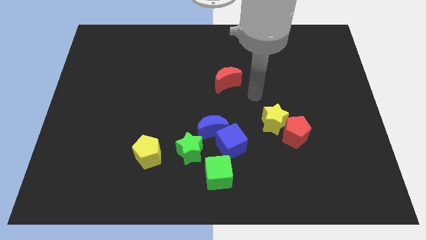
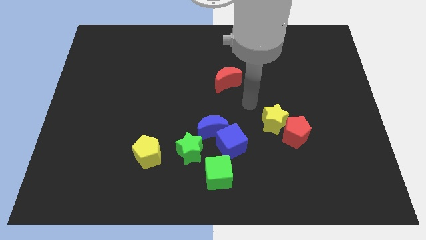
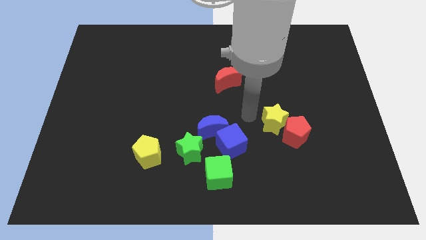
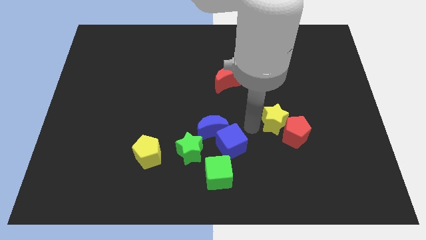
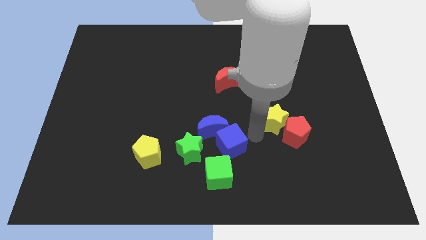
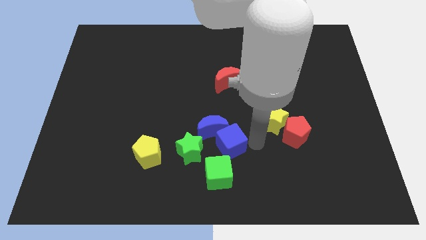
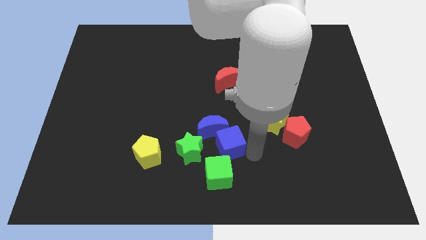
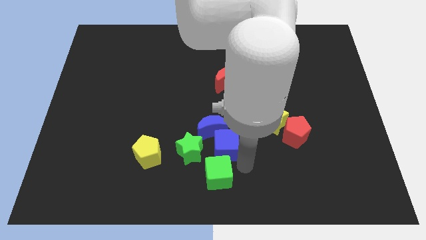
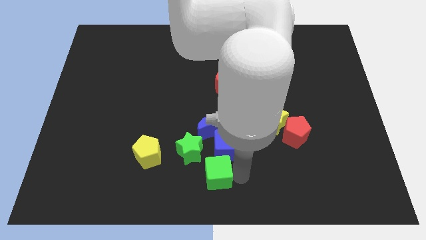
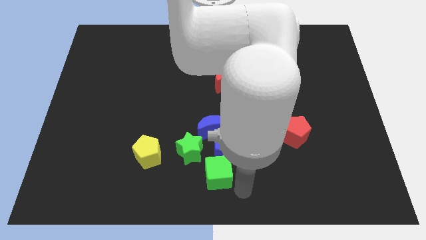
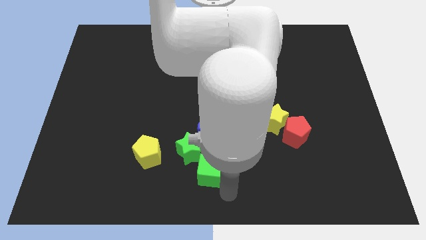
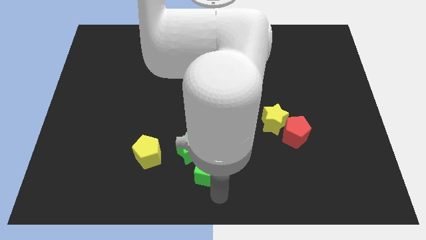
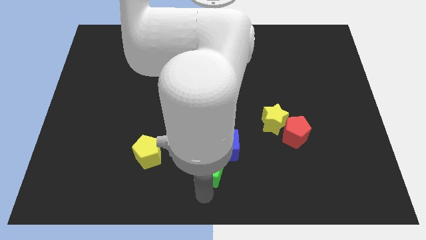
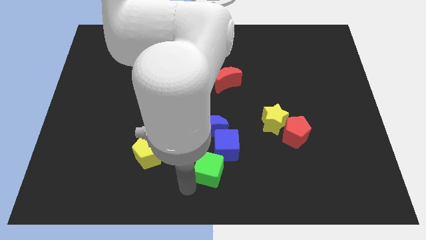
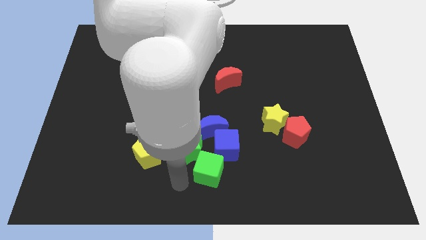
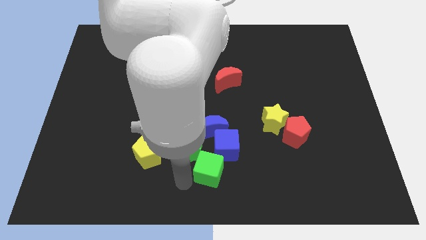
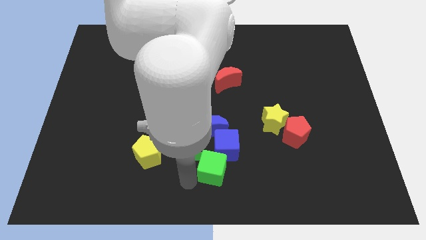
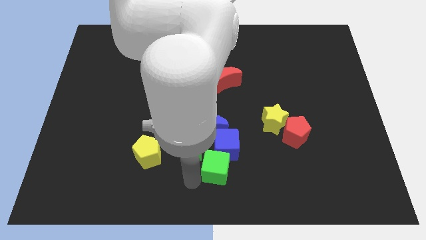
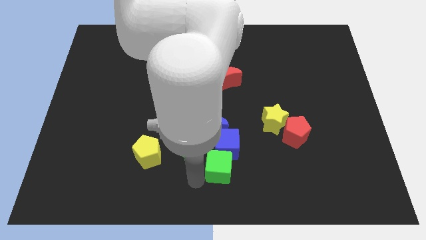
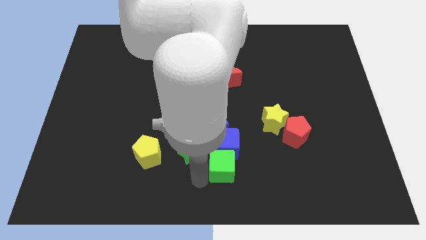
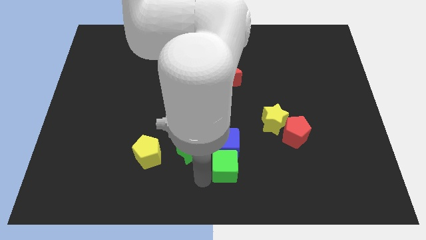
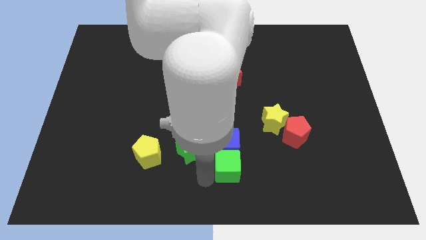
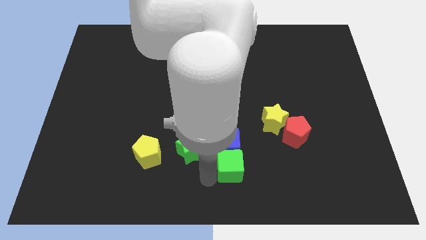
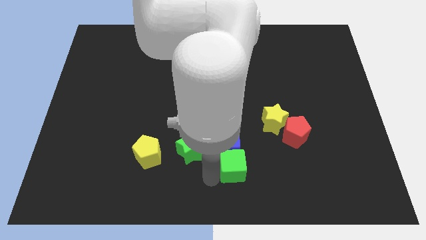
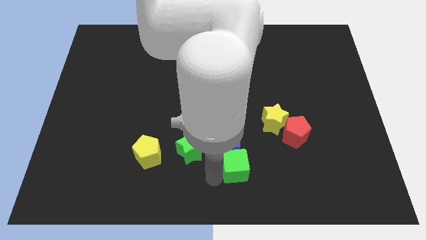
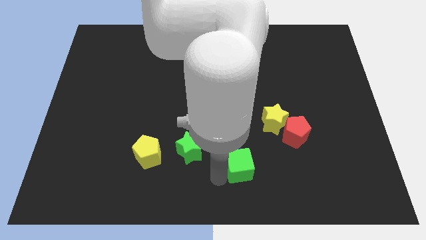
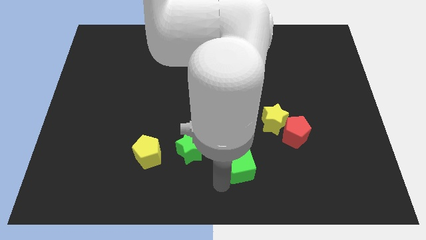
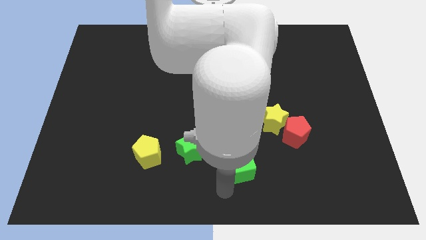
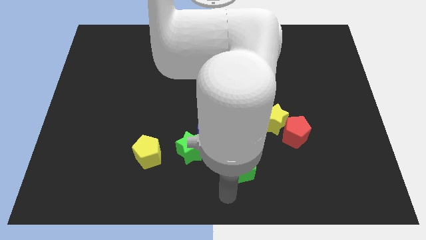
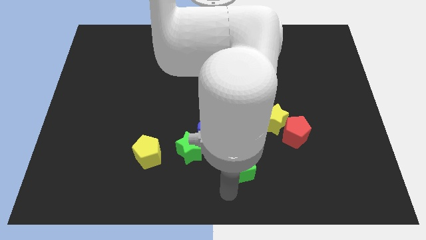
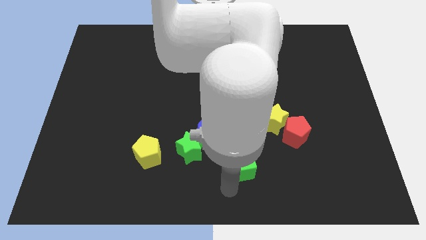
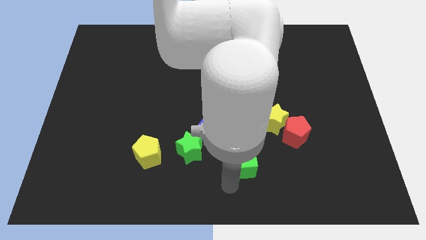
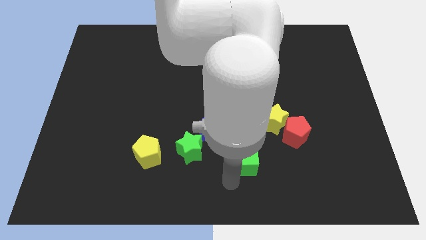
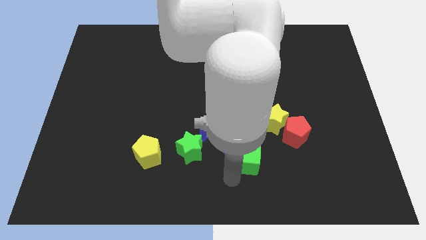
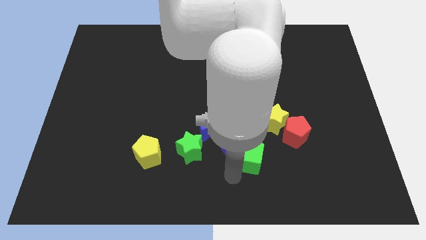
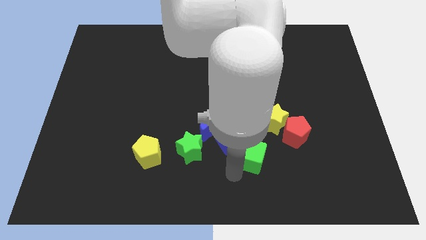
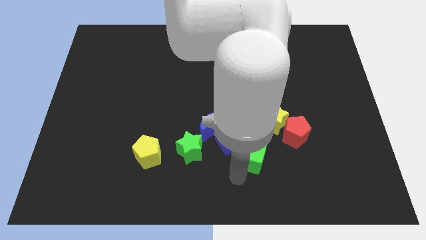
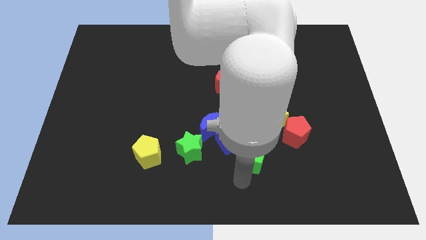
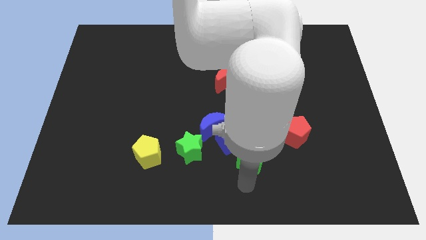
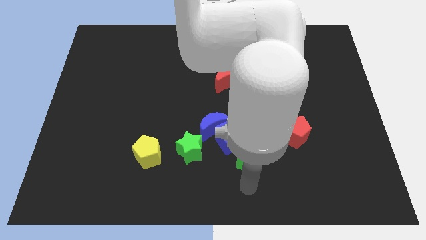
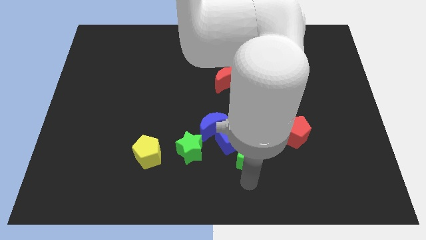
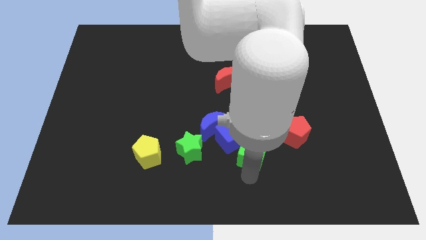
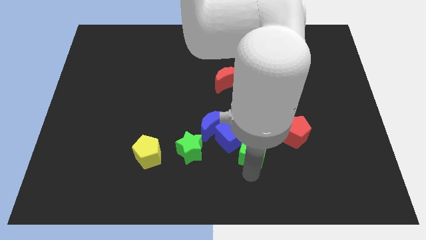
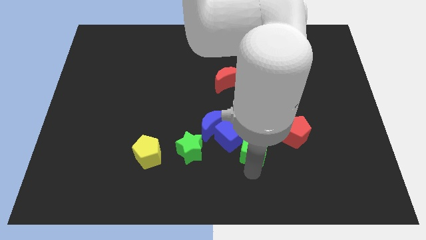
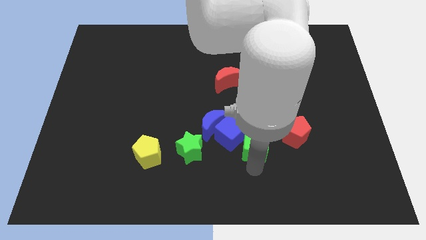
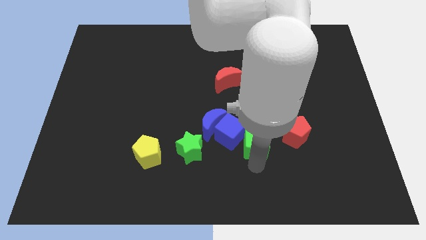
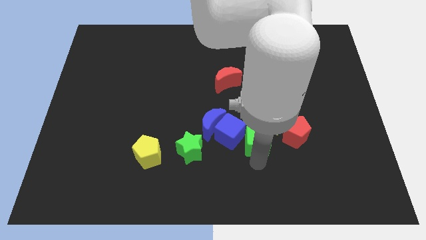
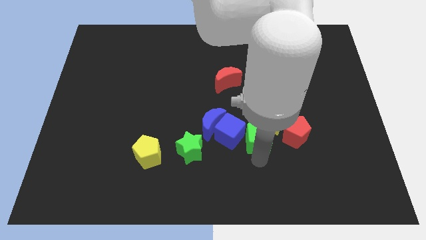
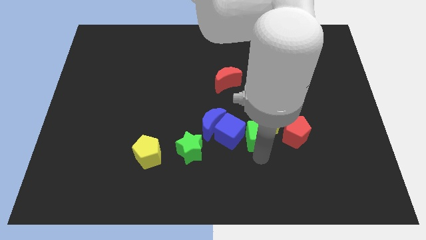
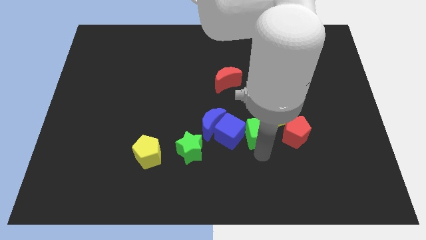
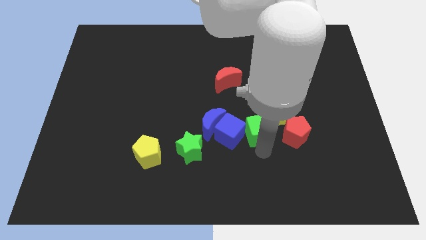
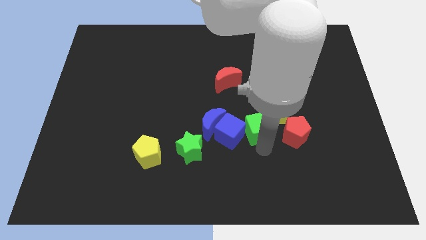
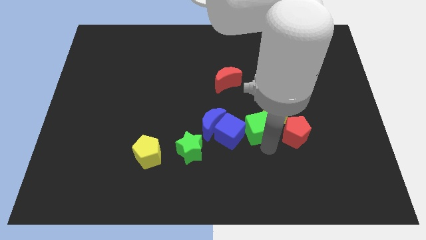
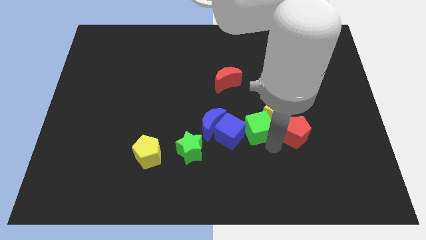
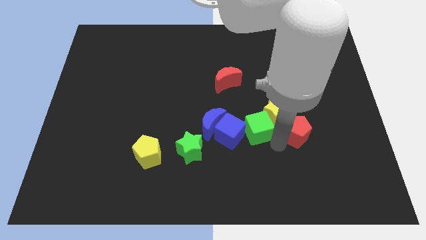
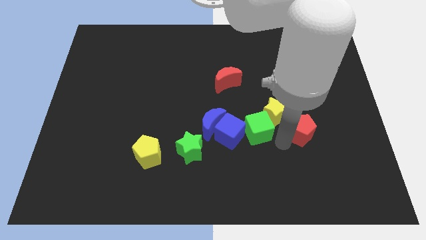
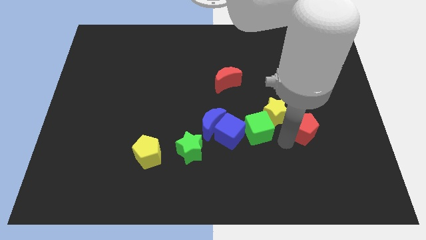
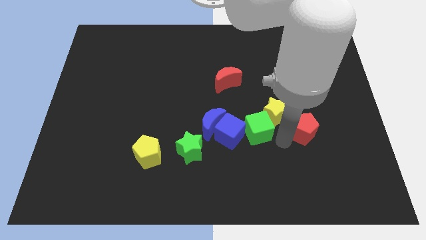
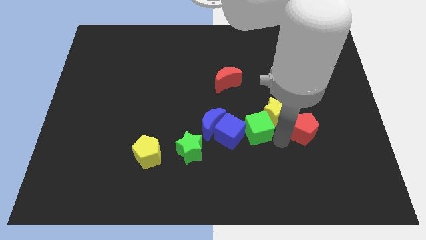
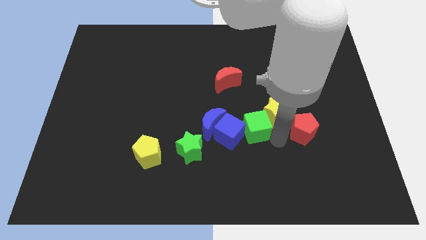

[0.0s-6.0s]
put the green cube to the middle
